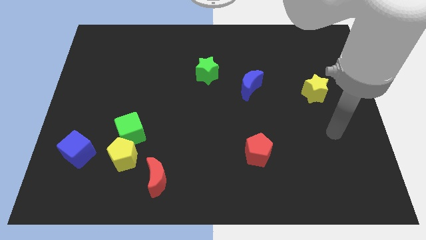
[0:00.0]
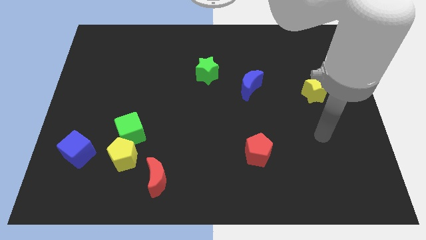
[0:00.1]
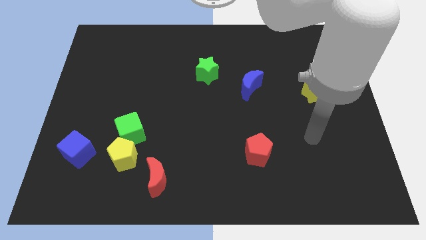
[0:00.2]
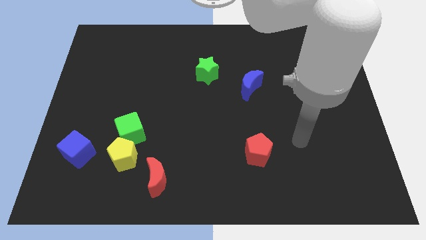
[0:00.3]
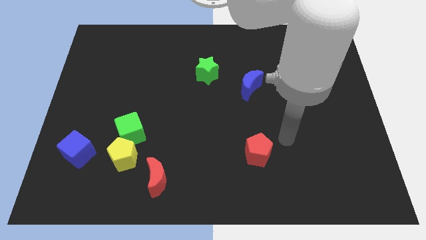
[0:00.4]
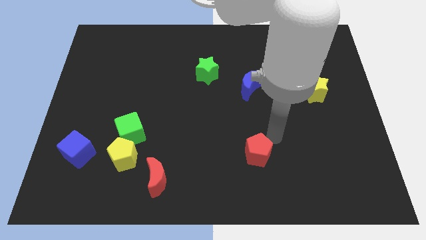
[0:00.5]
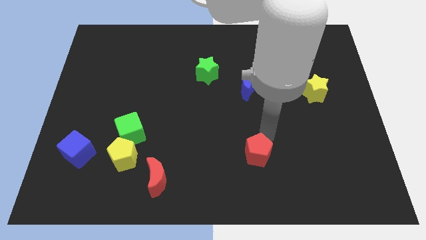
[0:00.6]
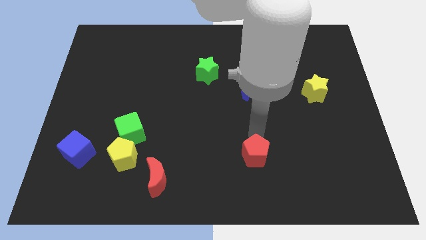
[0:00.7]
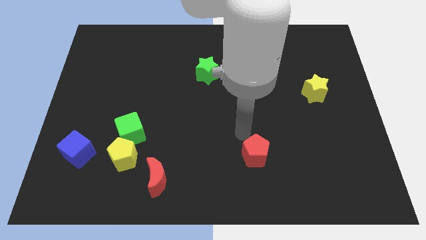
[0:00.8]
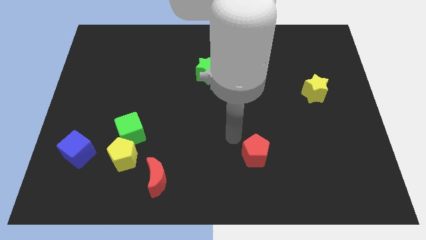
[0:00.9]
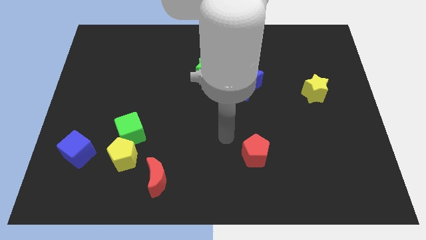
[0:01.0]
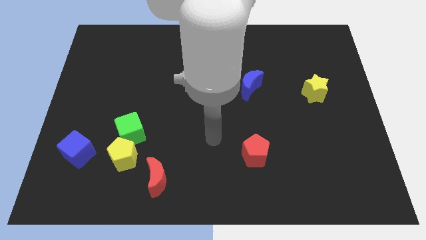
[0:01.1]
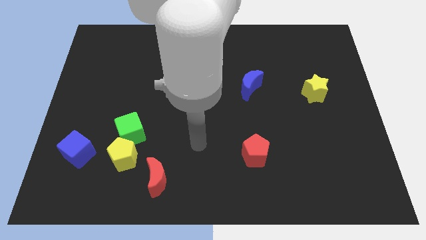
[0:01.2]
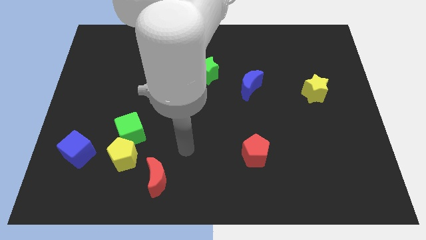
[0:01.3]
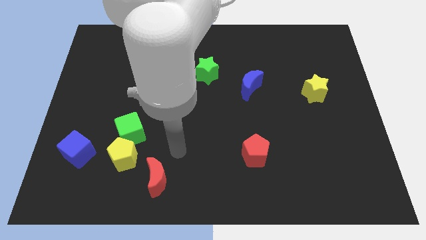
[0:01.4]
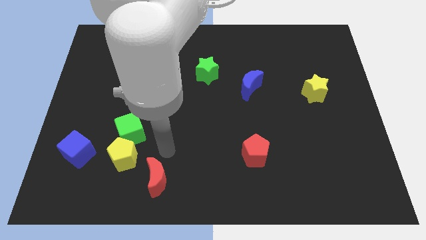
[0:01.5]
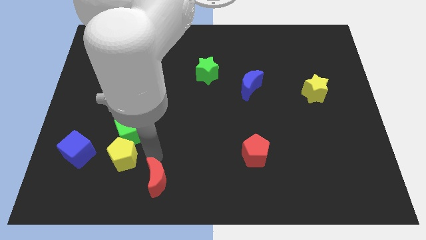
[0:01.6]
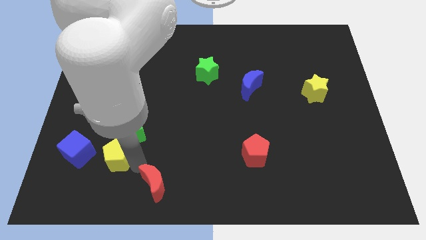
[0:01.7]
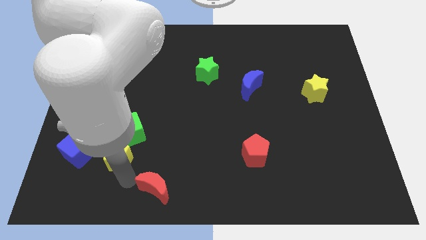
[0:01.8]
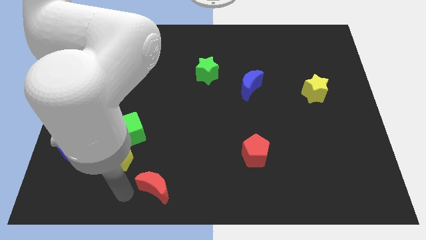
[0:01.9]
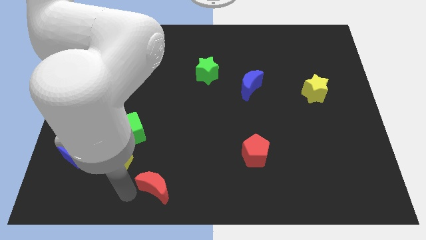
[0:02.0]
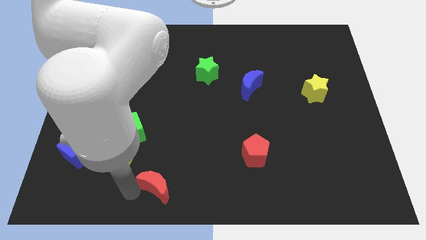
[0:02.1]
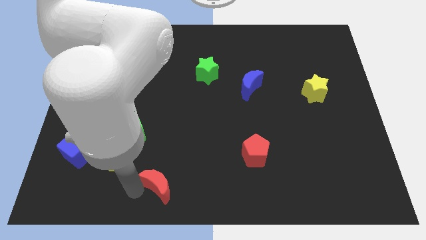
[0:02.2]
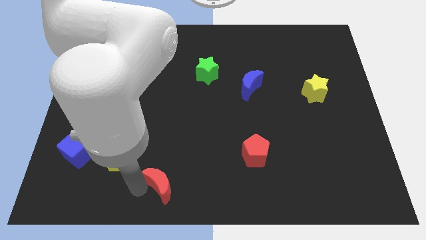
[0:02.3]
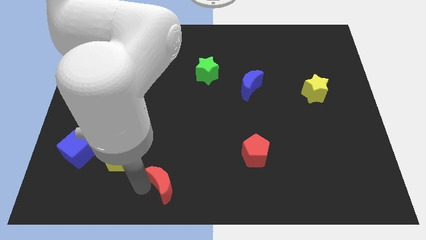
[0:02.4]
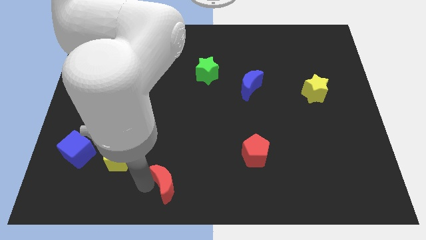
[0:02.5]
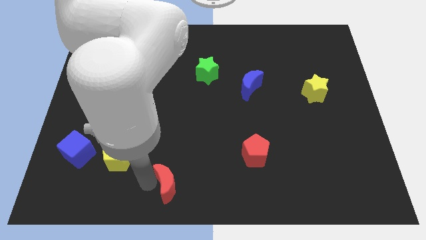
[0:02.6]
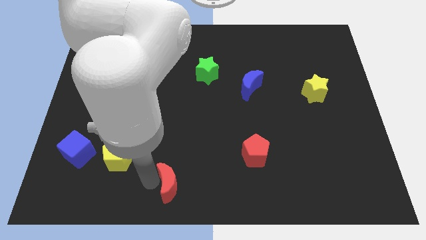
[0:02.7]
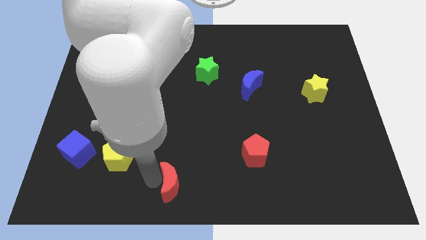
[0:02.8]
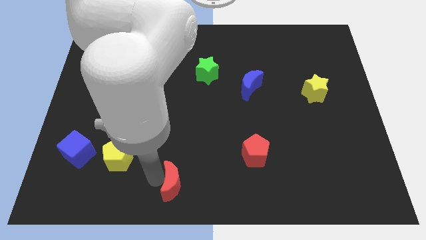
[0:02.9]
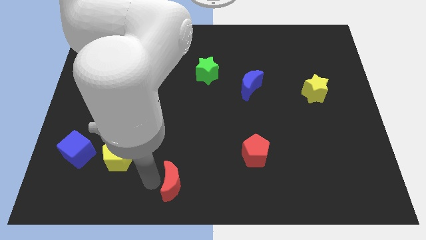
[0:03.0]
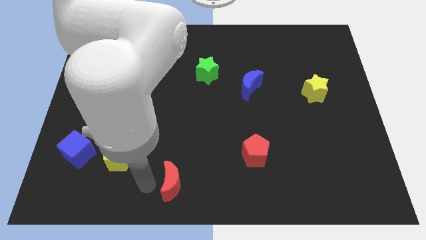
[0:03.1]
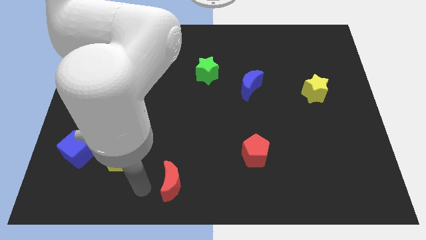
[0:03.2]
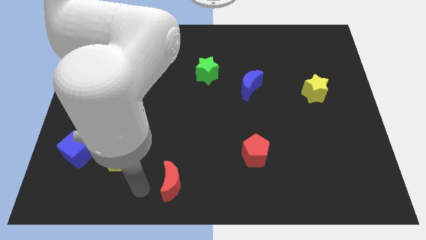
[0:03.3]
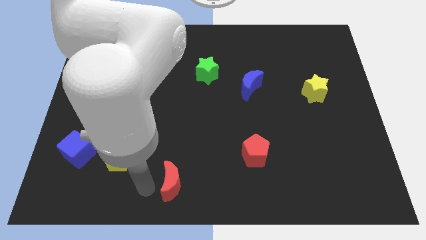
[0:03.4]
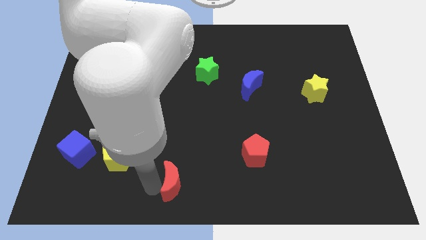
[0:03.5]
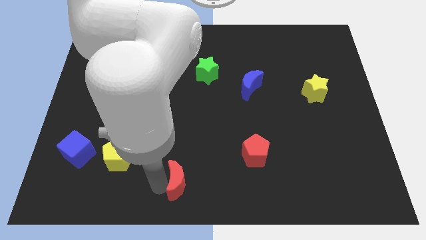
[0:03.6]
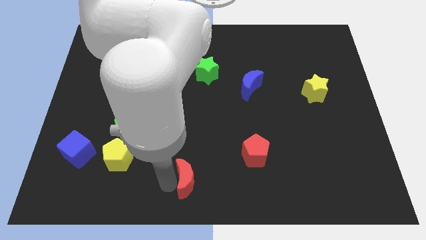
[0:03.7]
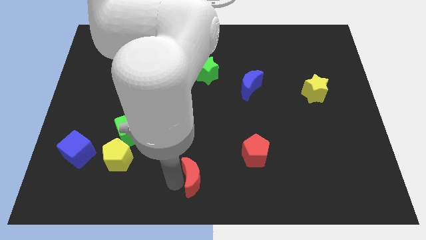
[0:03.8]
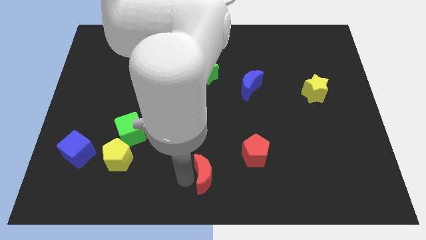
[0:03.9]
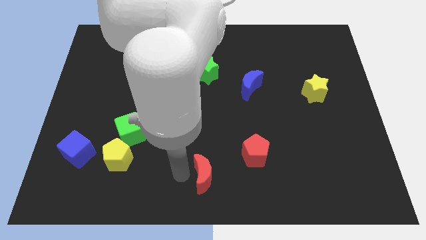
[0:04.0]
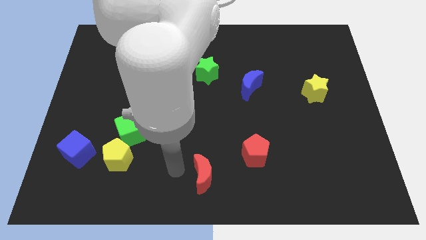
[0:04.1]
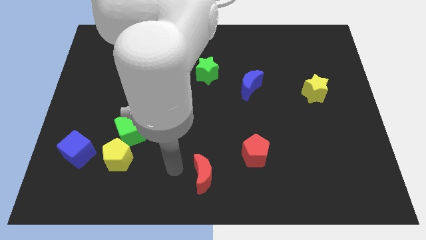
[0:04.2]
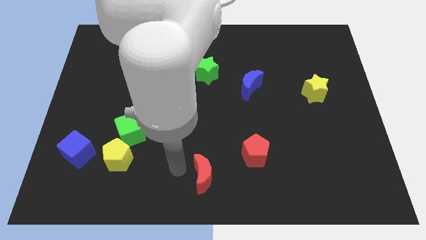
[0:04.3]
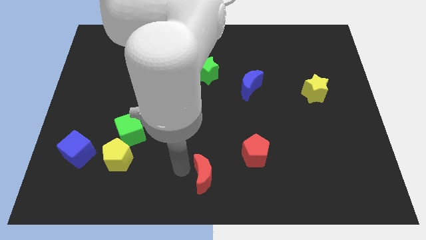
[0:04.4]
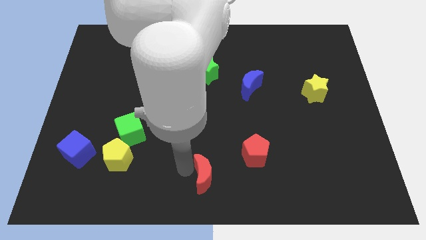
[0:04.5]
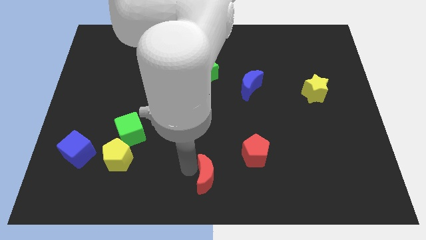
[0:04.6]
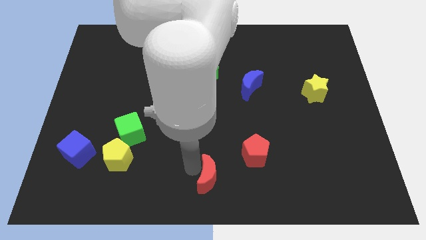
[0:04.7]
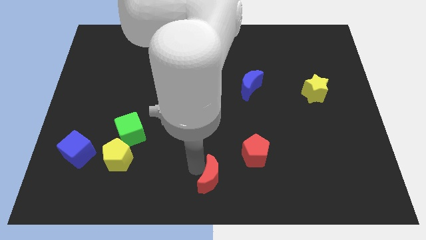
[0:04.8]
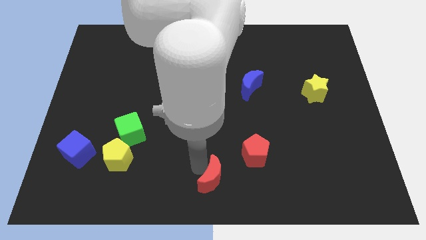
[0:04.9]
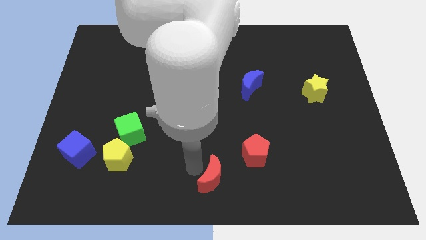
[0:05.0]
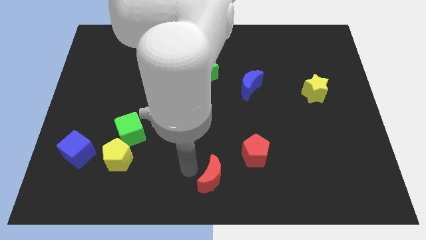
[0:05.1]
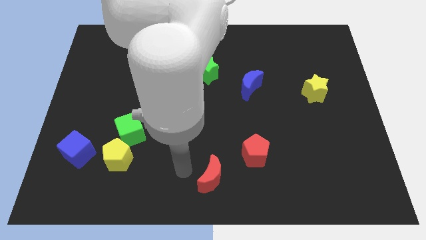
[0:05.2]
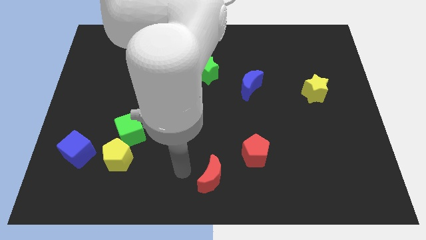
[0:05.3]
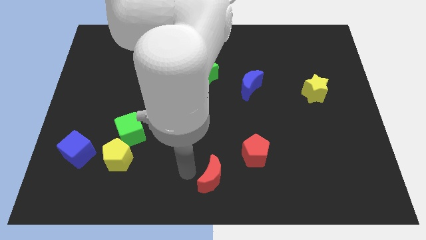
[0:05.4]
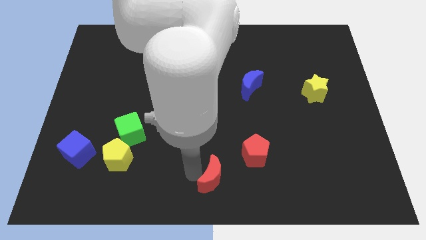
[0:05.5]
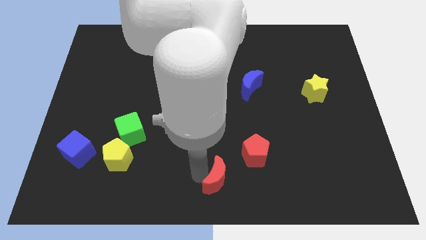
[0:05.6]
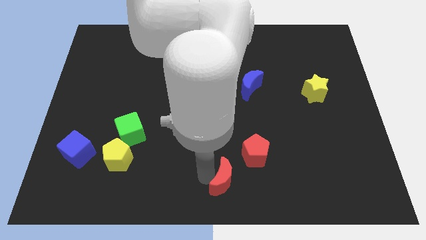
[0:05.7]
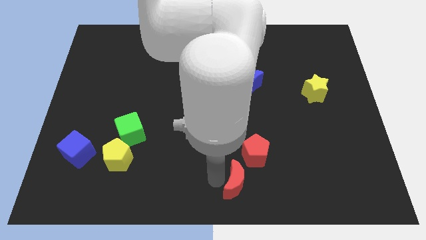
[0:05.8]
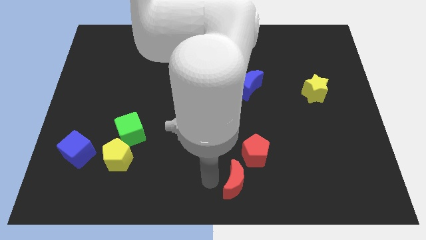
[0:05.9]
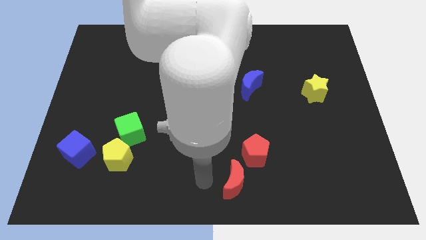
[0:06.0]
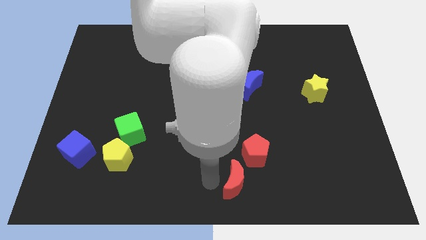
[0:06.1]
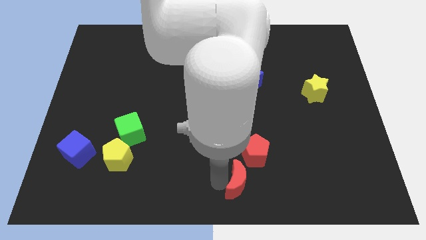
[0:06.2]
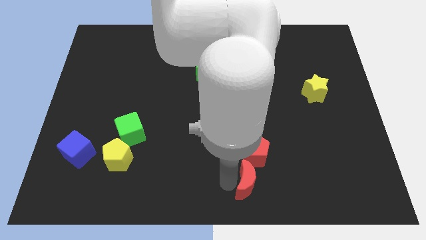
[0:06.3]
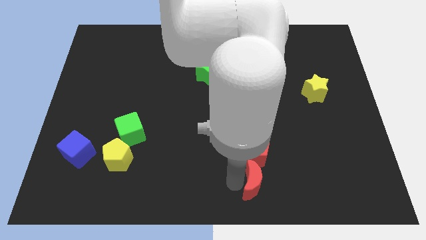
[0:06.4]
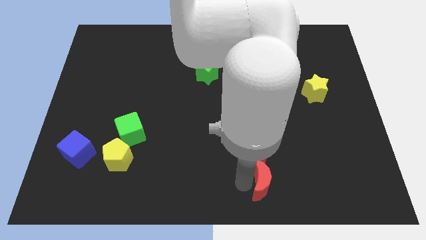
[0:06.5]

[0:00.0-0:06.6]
push the red moon right

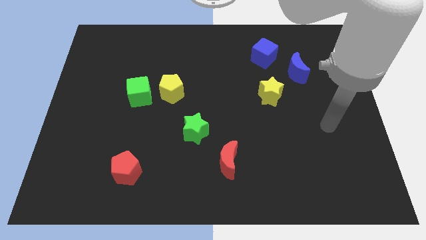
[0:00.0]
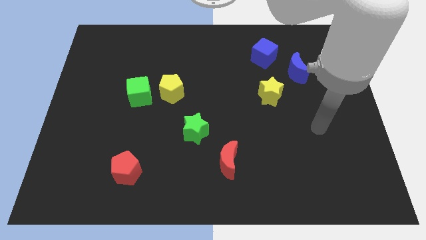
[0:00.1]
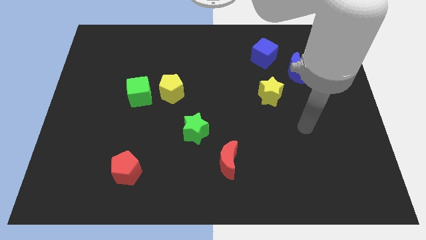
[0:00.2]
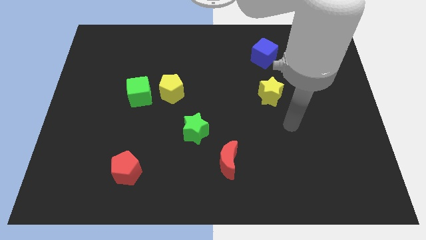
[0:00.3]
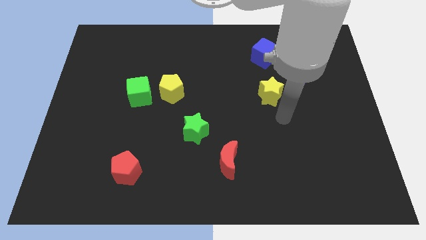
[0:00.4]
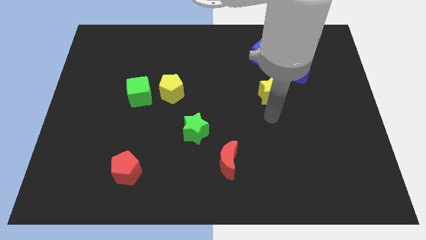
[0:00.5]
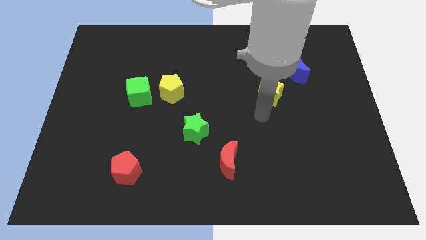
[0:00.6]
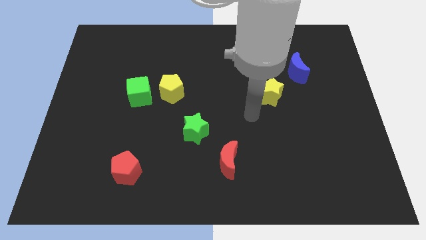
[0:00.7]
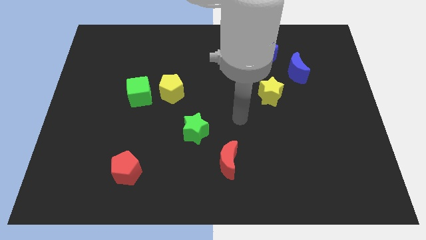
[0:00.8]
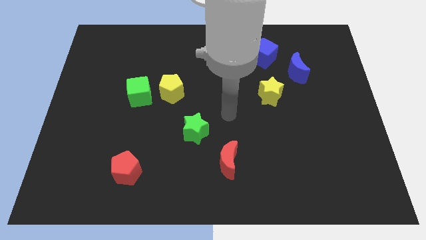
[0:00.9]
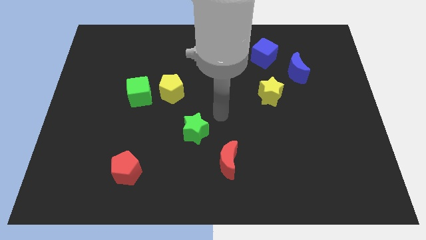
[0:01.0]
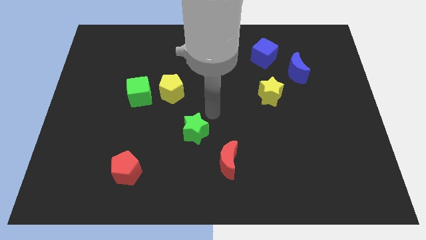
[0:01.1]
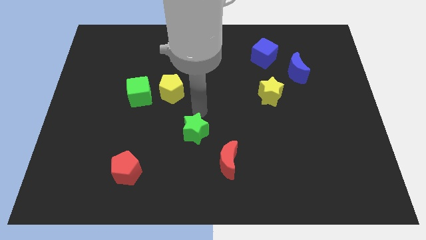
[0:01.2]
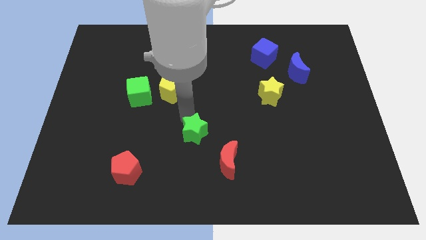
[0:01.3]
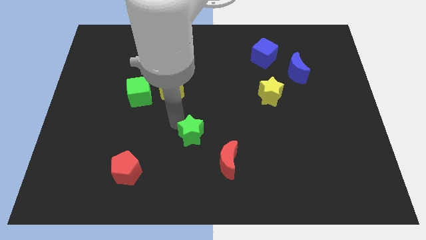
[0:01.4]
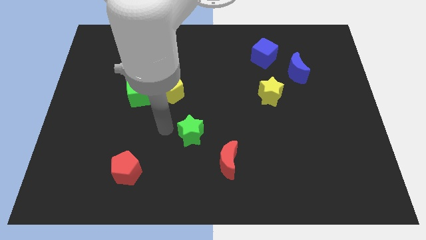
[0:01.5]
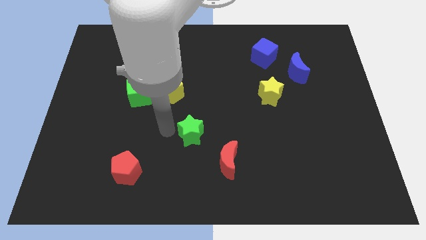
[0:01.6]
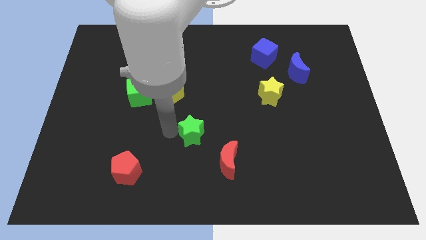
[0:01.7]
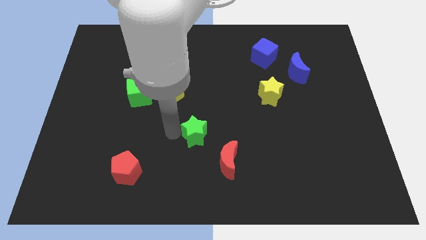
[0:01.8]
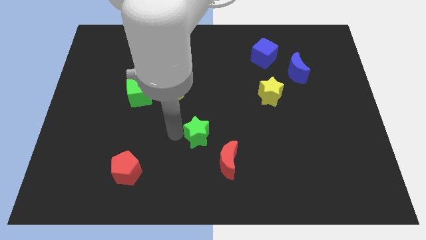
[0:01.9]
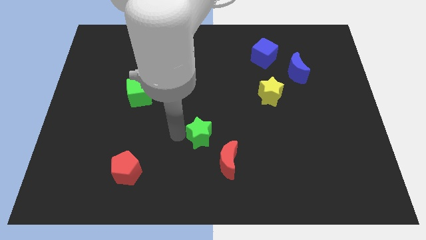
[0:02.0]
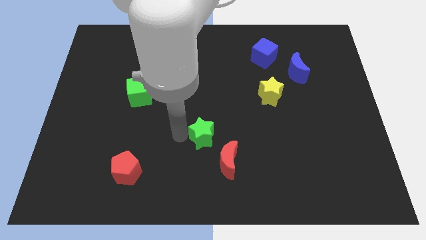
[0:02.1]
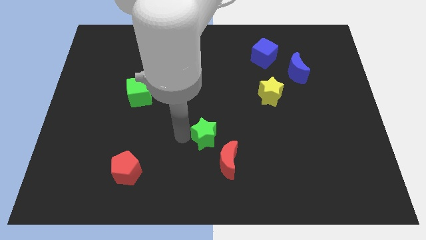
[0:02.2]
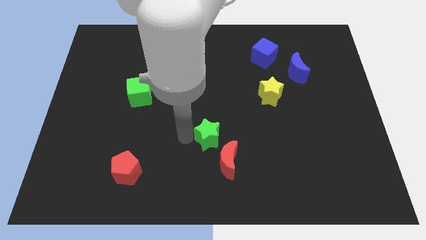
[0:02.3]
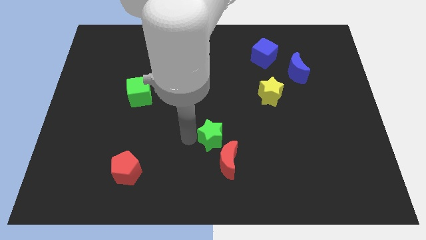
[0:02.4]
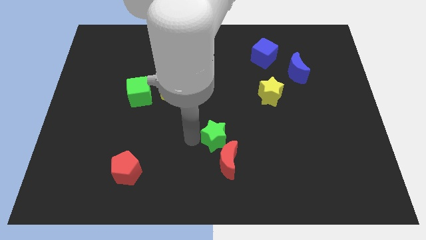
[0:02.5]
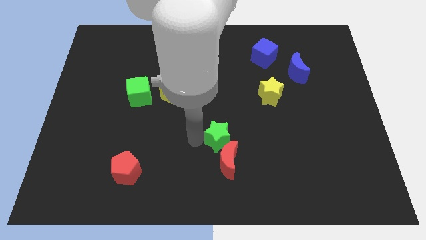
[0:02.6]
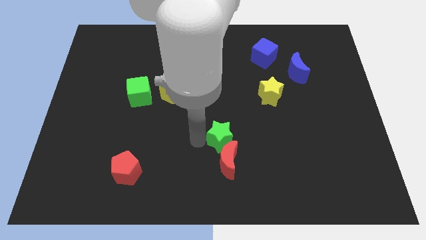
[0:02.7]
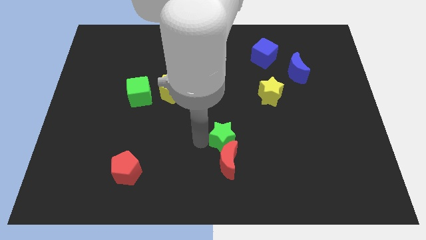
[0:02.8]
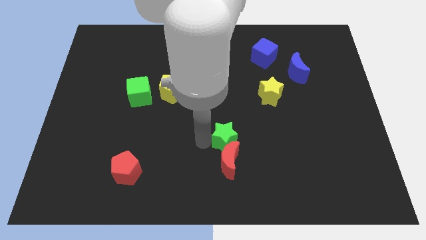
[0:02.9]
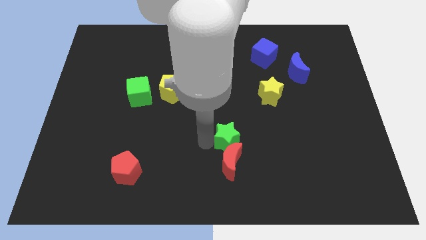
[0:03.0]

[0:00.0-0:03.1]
slide the green star slightly to the right
